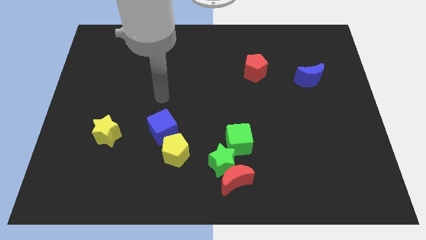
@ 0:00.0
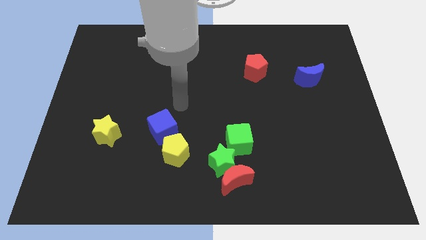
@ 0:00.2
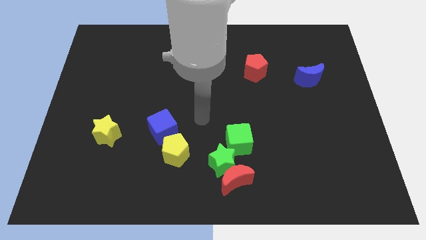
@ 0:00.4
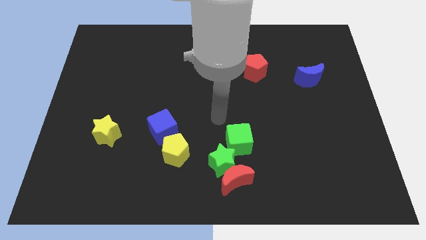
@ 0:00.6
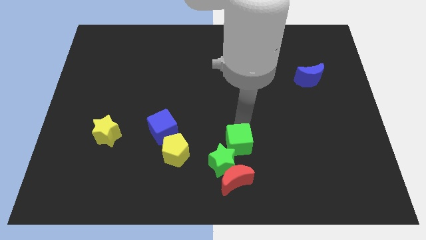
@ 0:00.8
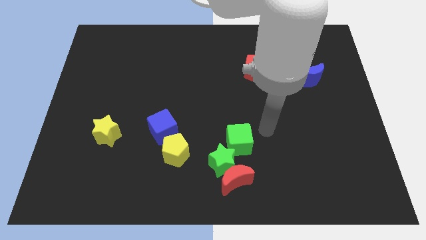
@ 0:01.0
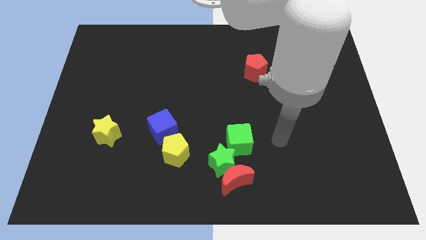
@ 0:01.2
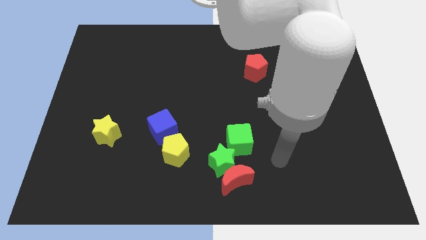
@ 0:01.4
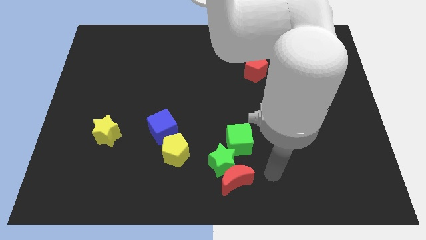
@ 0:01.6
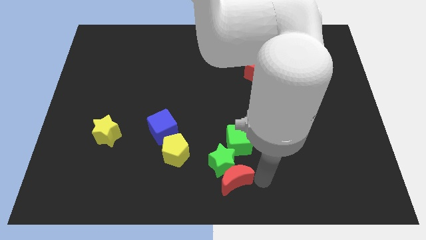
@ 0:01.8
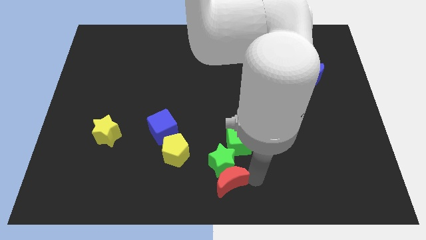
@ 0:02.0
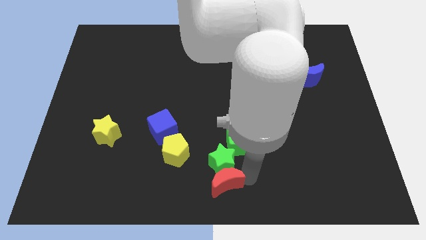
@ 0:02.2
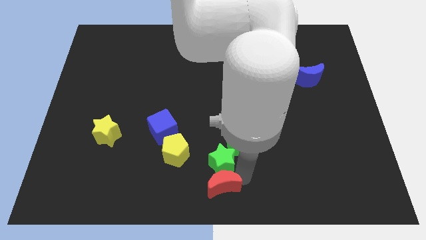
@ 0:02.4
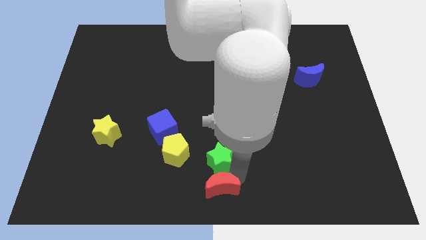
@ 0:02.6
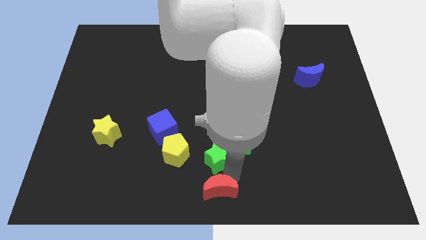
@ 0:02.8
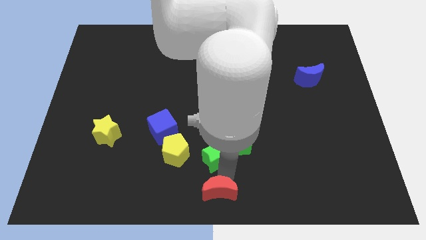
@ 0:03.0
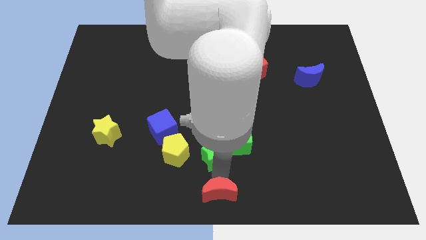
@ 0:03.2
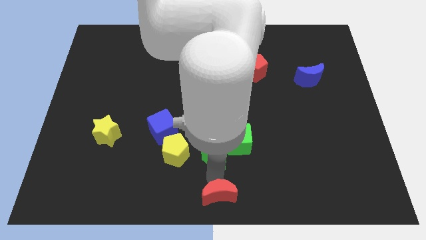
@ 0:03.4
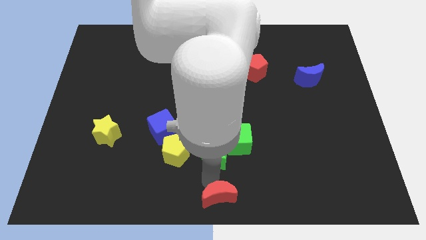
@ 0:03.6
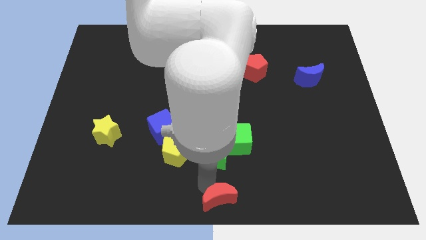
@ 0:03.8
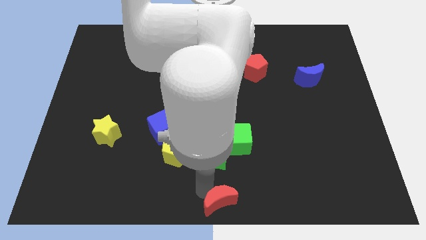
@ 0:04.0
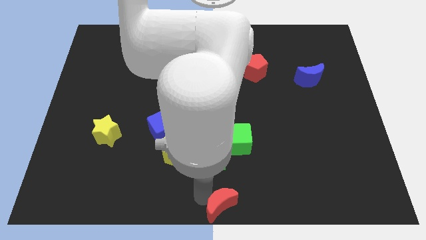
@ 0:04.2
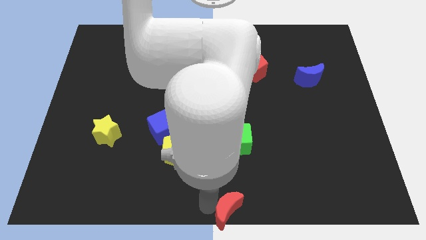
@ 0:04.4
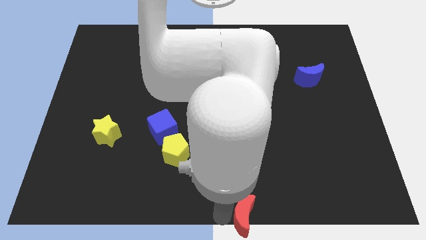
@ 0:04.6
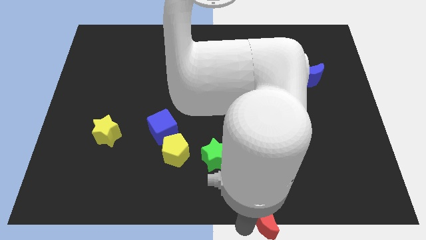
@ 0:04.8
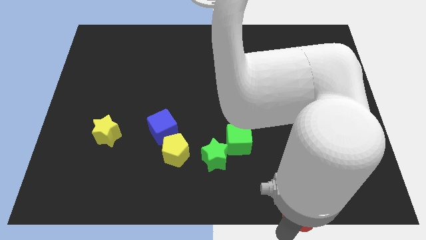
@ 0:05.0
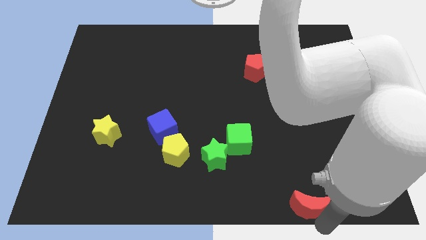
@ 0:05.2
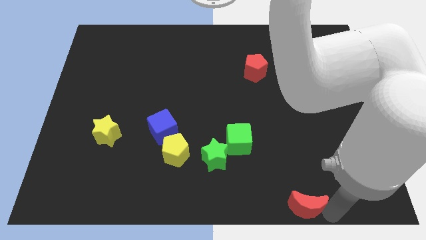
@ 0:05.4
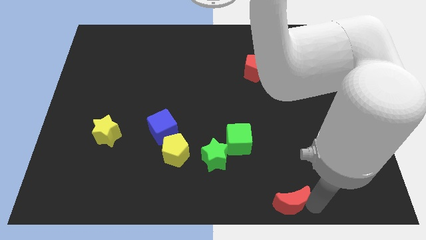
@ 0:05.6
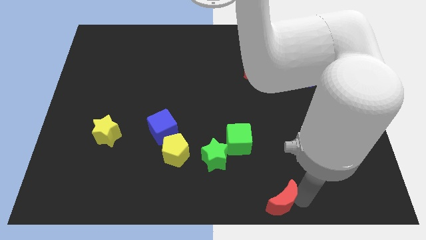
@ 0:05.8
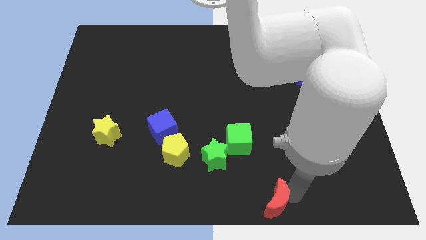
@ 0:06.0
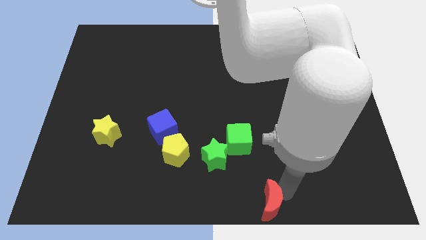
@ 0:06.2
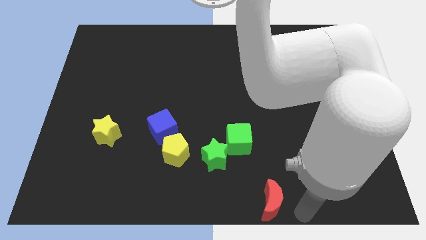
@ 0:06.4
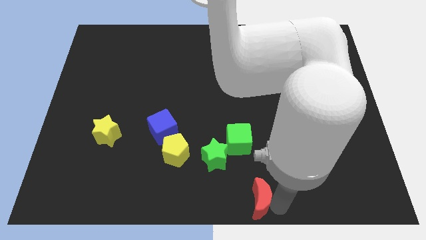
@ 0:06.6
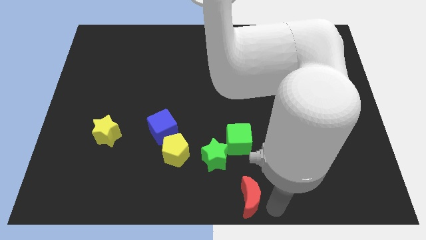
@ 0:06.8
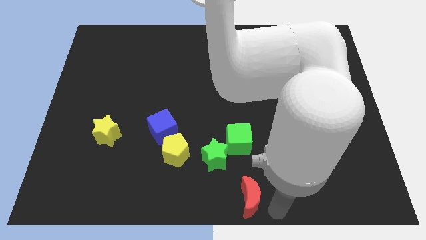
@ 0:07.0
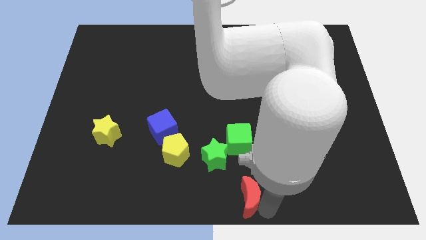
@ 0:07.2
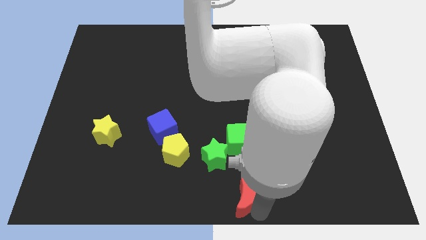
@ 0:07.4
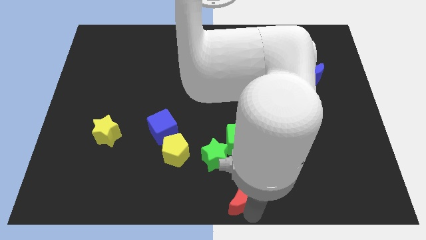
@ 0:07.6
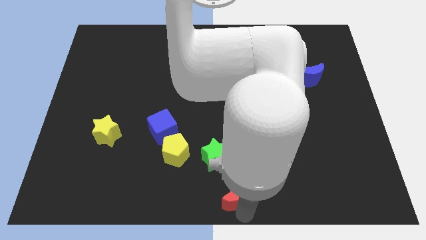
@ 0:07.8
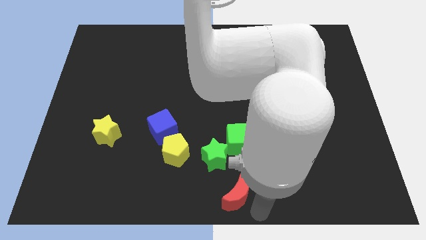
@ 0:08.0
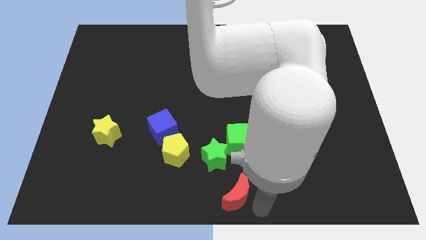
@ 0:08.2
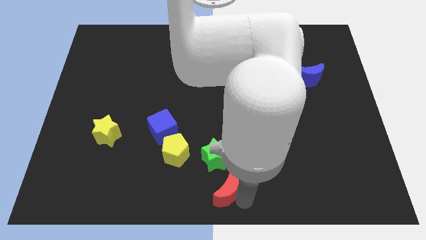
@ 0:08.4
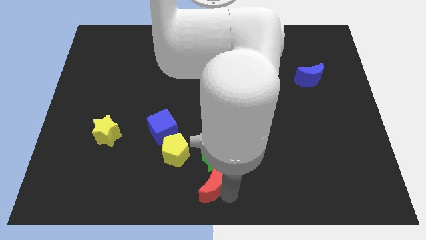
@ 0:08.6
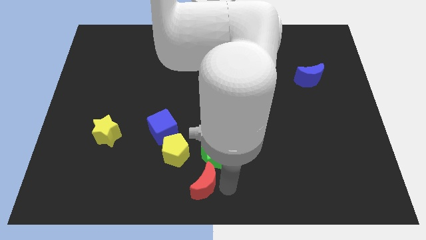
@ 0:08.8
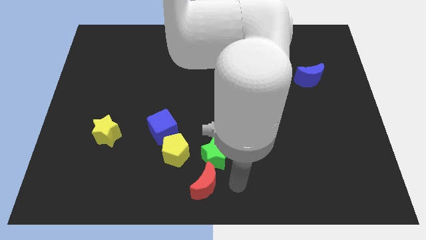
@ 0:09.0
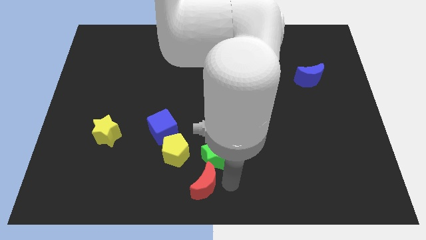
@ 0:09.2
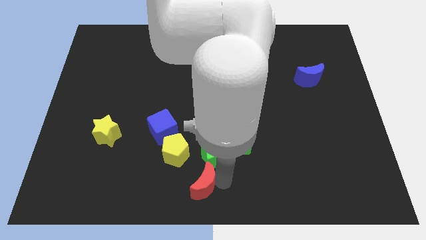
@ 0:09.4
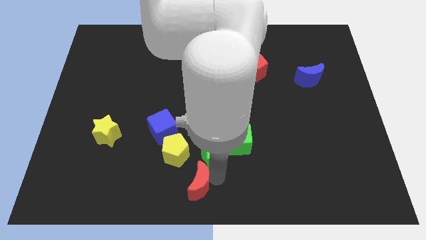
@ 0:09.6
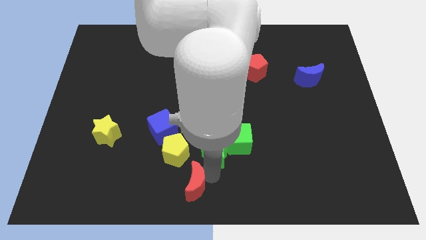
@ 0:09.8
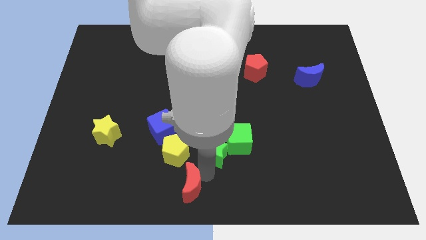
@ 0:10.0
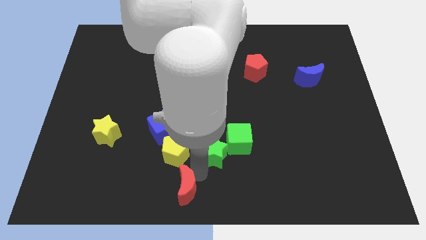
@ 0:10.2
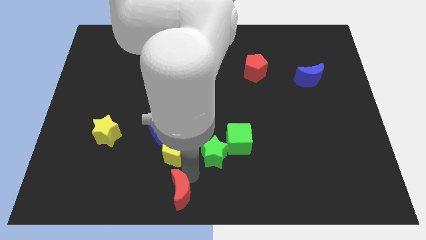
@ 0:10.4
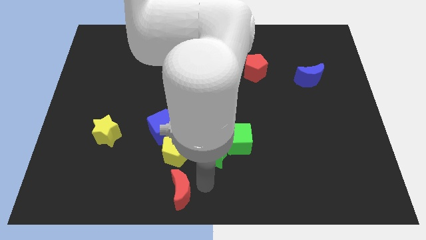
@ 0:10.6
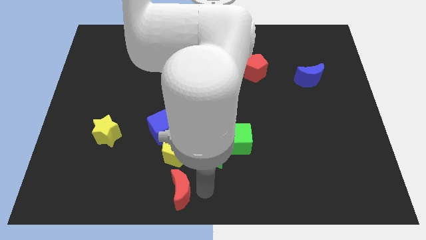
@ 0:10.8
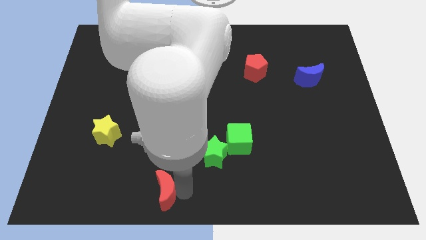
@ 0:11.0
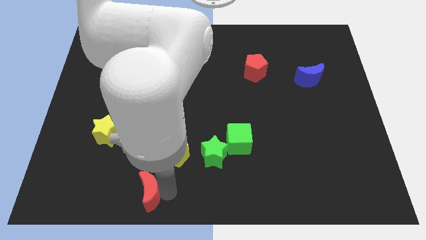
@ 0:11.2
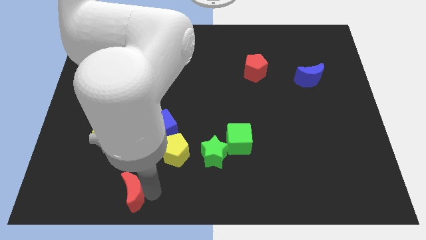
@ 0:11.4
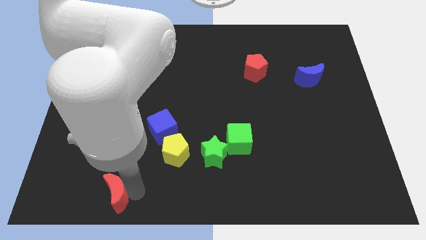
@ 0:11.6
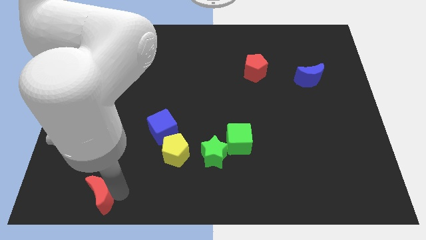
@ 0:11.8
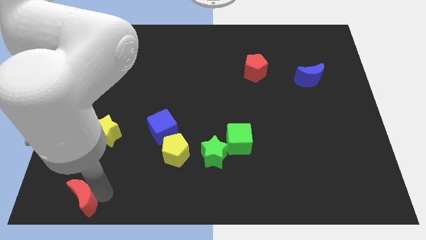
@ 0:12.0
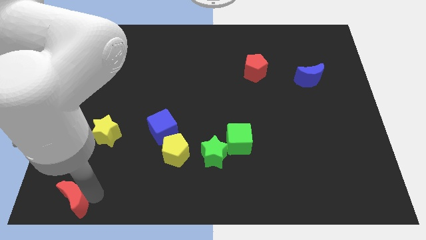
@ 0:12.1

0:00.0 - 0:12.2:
move the red moon to the lower left corner
